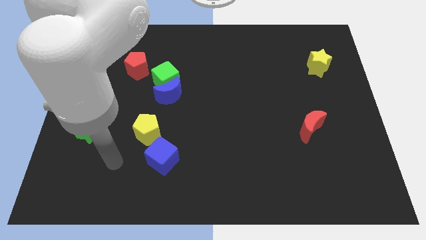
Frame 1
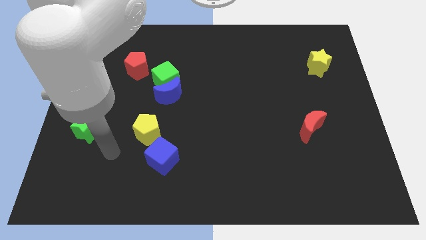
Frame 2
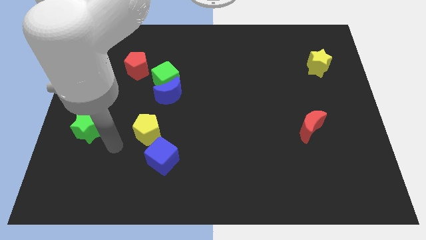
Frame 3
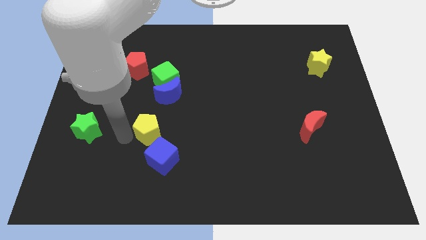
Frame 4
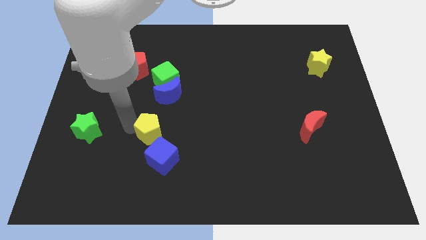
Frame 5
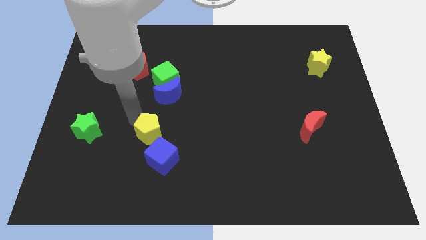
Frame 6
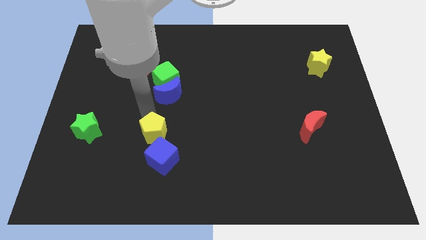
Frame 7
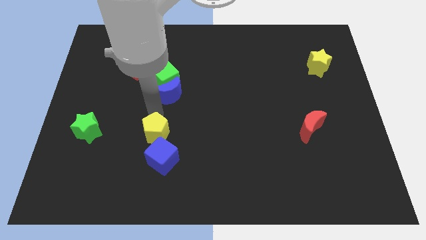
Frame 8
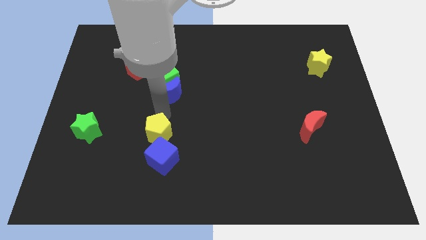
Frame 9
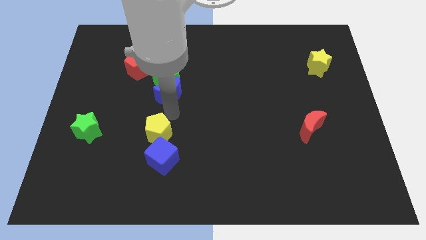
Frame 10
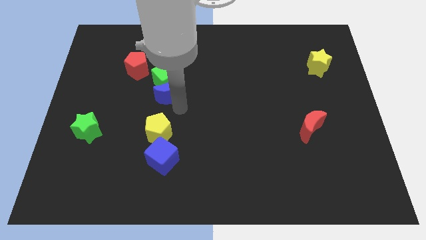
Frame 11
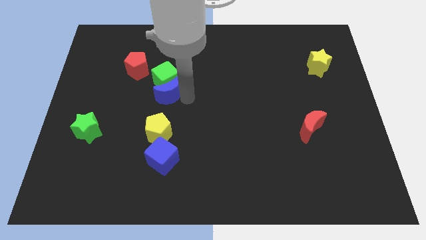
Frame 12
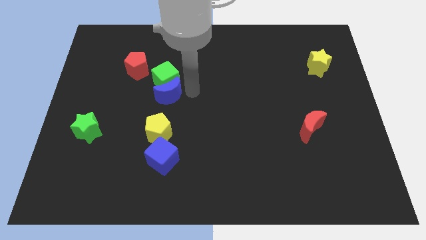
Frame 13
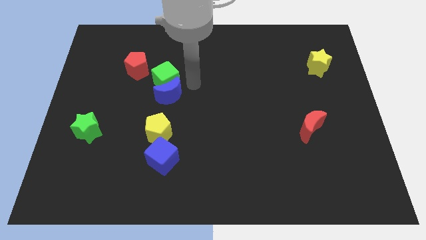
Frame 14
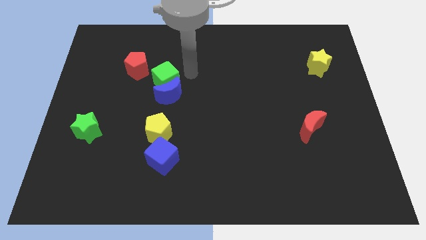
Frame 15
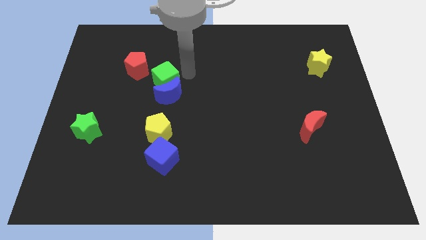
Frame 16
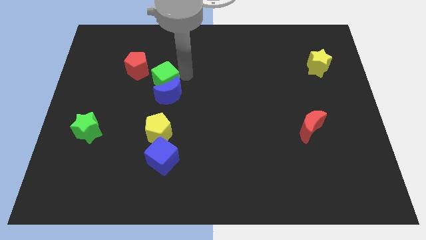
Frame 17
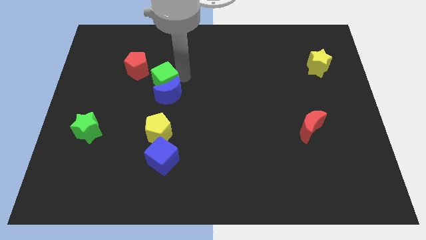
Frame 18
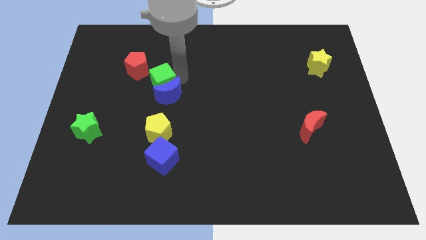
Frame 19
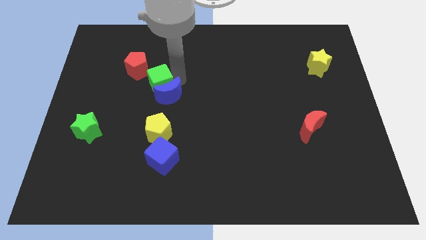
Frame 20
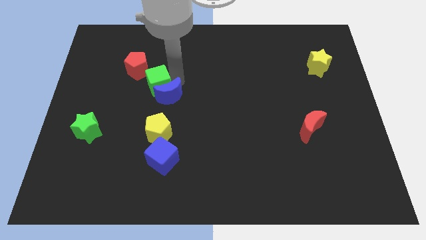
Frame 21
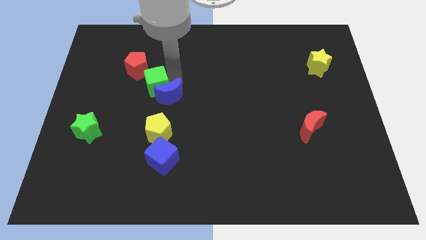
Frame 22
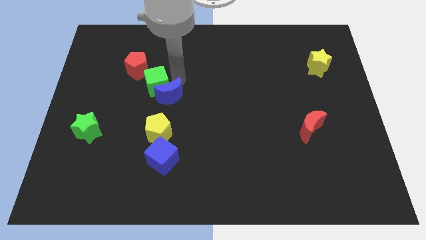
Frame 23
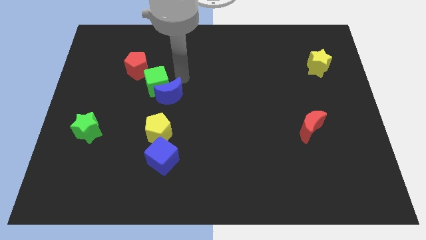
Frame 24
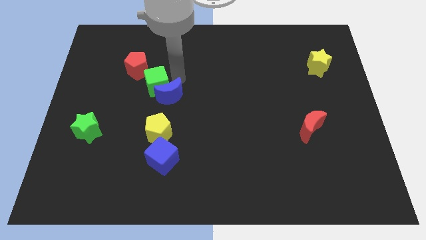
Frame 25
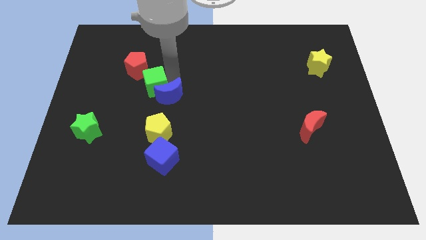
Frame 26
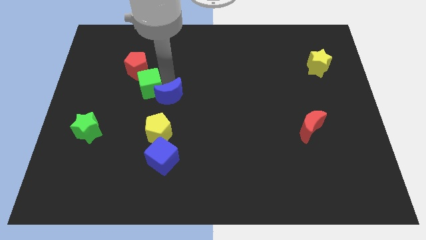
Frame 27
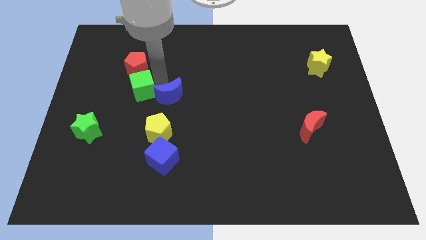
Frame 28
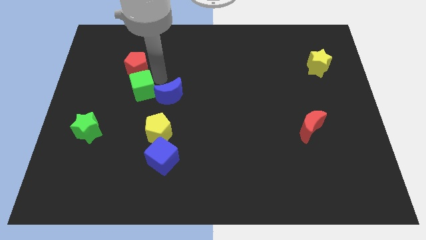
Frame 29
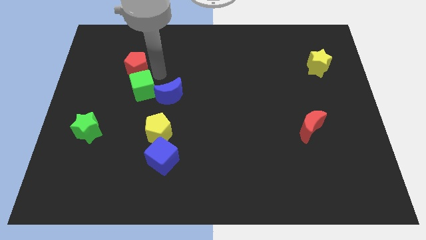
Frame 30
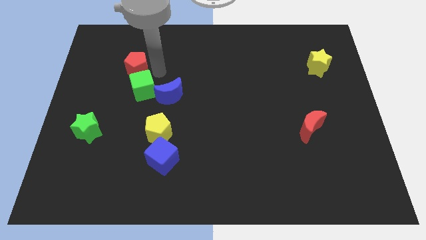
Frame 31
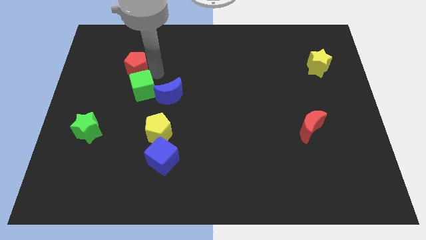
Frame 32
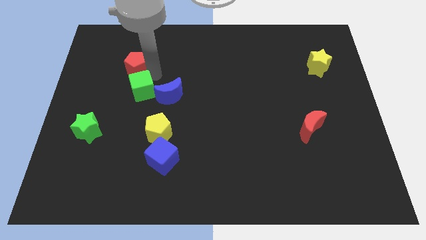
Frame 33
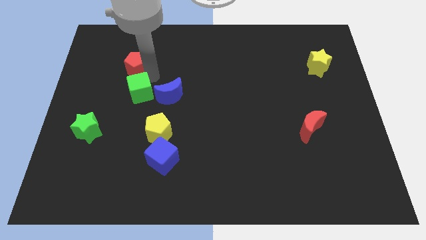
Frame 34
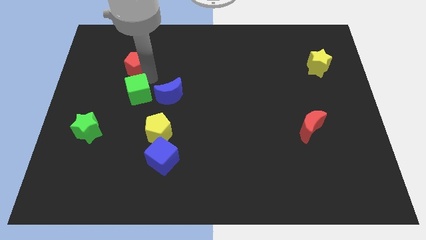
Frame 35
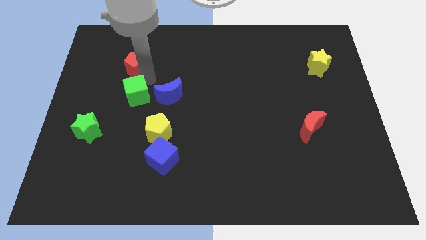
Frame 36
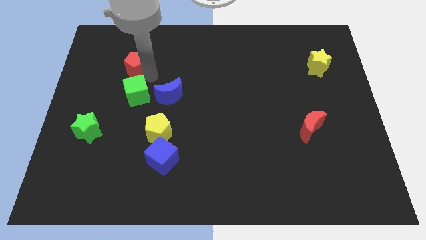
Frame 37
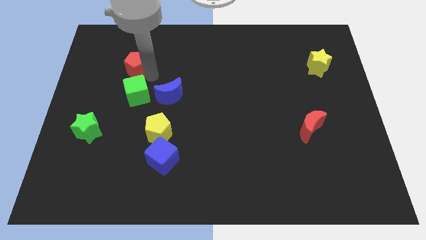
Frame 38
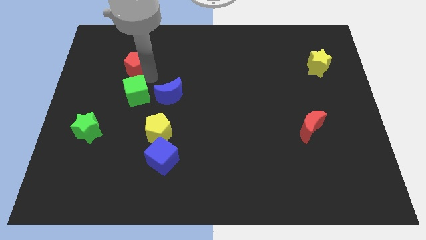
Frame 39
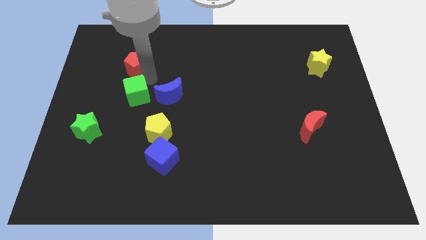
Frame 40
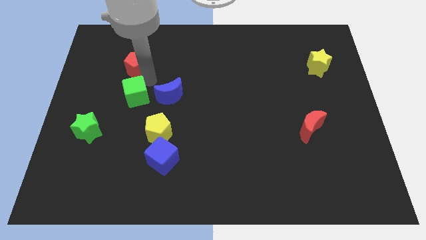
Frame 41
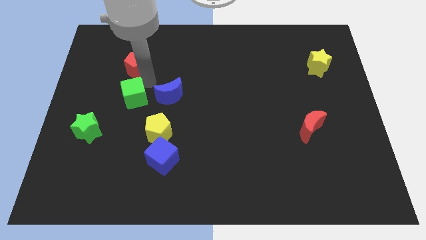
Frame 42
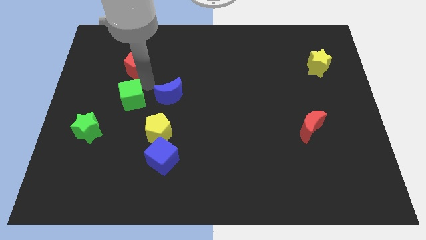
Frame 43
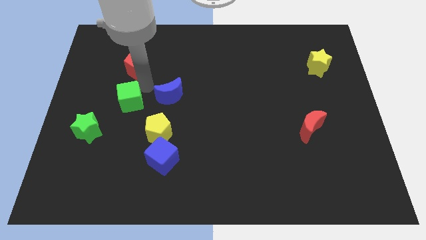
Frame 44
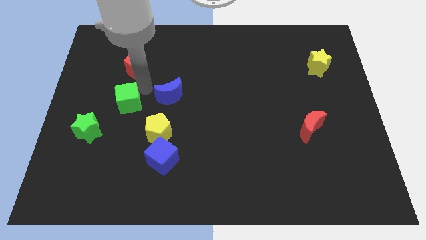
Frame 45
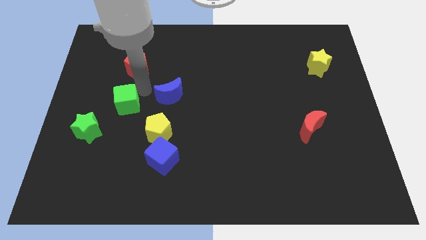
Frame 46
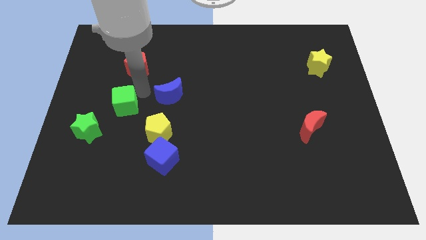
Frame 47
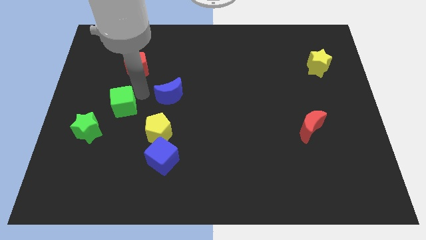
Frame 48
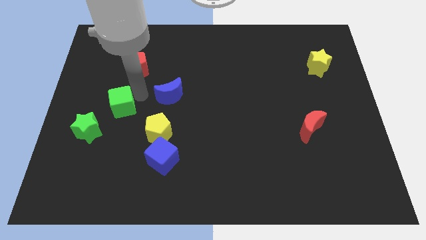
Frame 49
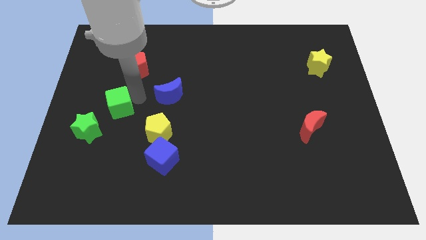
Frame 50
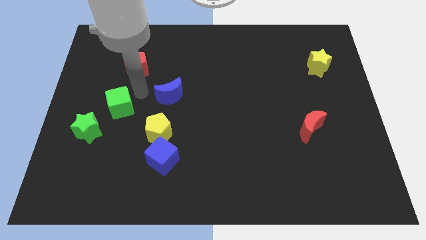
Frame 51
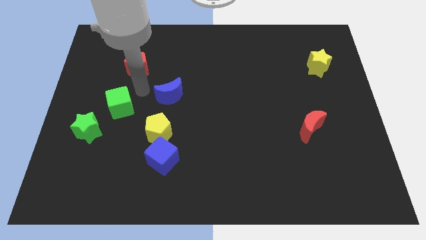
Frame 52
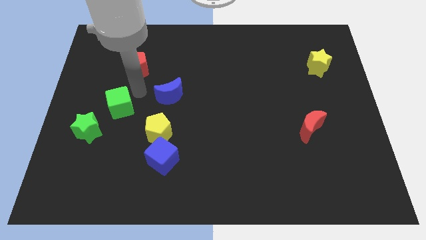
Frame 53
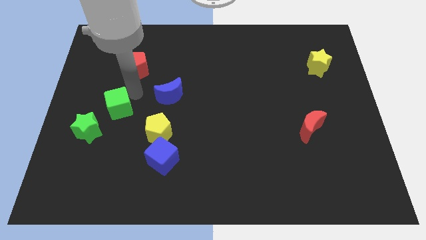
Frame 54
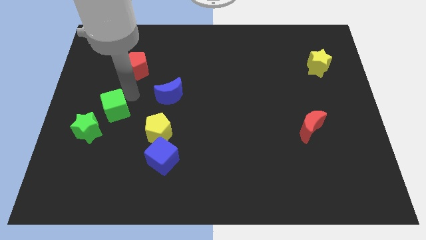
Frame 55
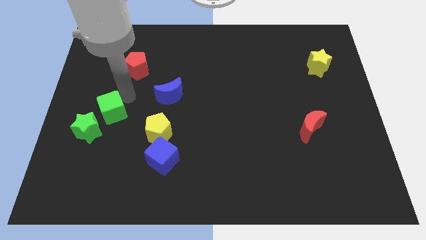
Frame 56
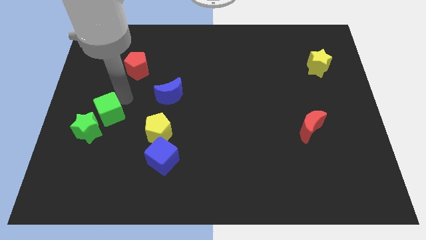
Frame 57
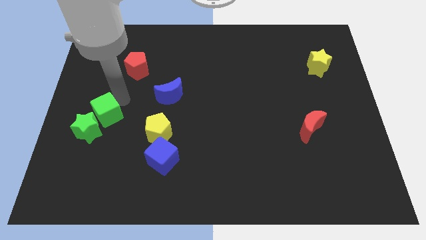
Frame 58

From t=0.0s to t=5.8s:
move the green cube next to the green star

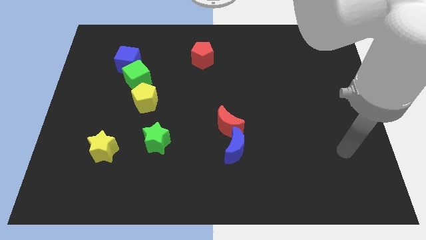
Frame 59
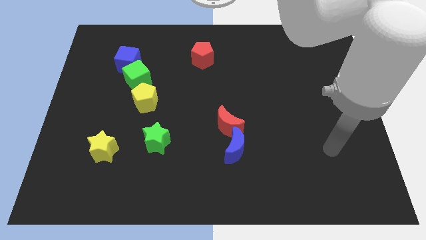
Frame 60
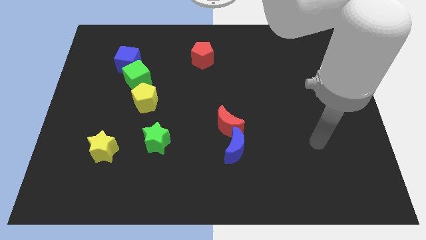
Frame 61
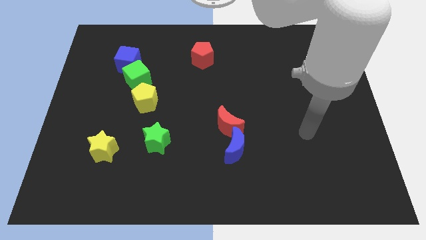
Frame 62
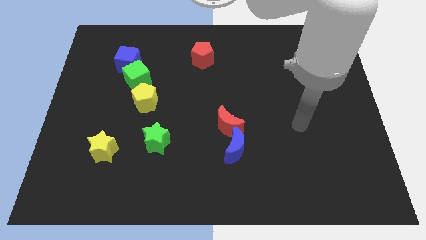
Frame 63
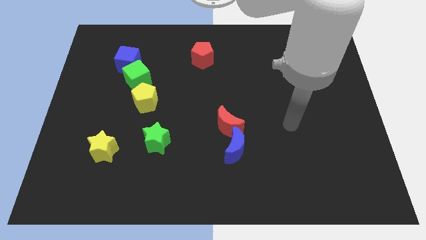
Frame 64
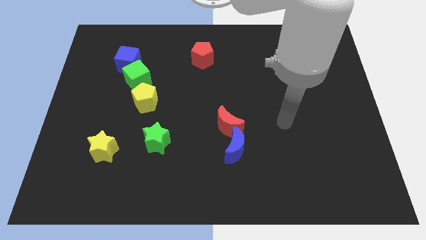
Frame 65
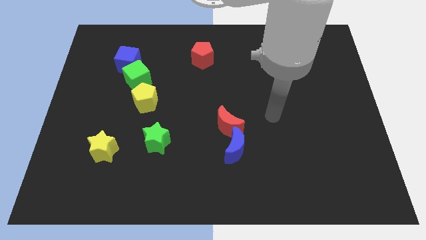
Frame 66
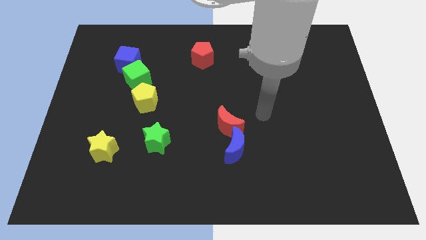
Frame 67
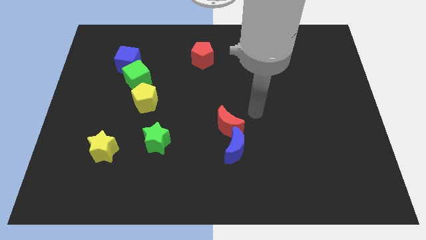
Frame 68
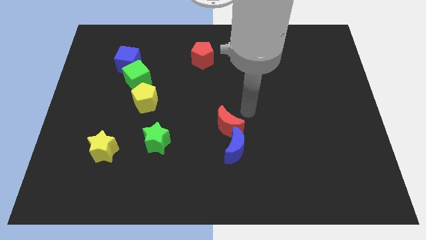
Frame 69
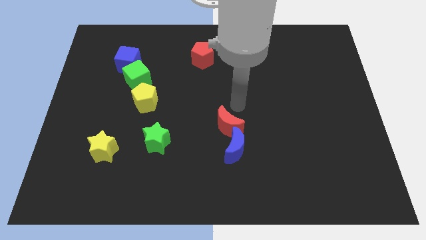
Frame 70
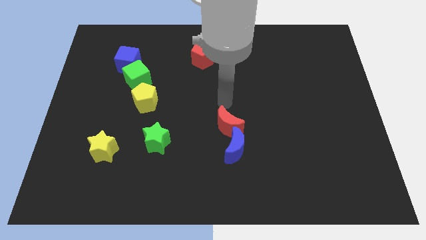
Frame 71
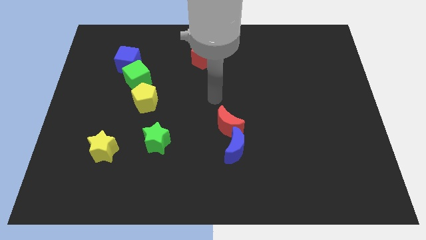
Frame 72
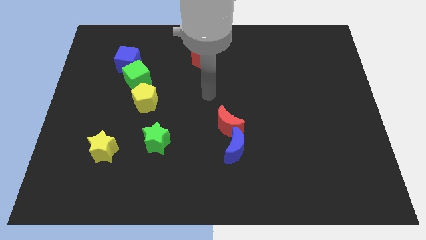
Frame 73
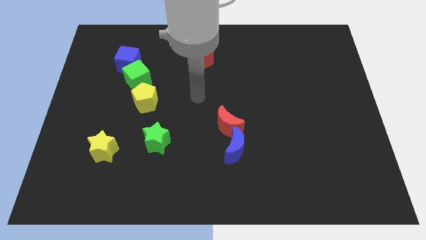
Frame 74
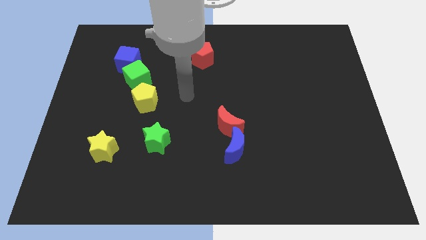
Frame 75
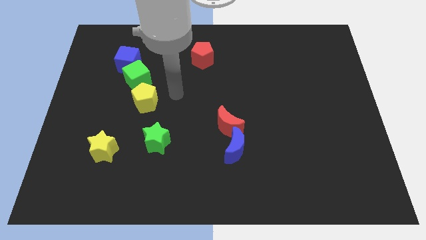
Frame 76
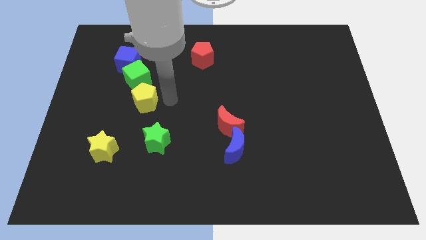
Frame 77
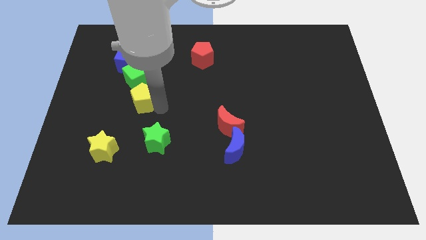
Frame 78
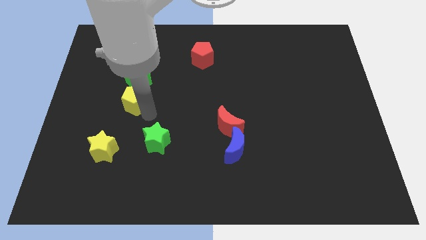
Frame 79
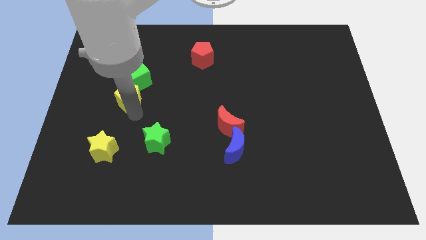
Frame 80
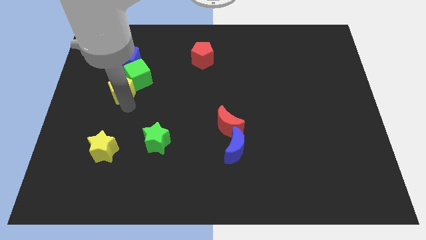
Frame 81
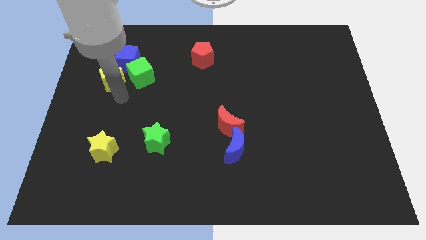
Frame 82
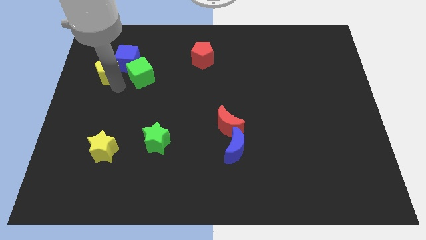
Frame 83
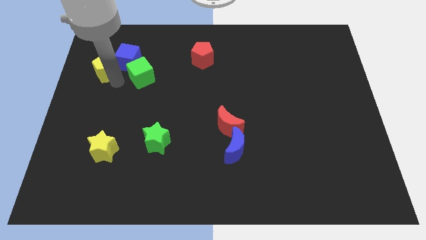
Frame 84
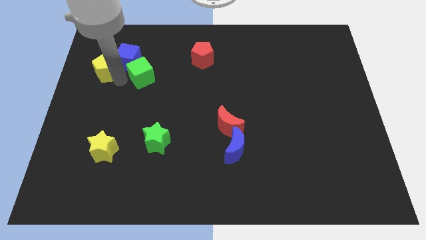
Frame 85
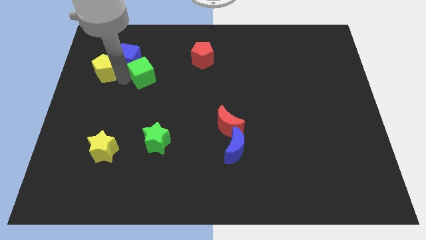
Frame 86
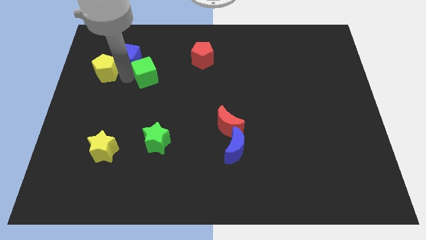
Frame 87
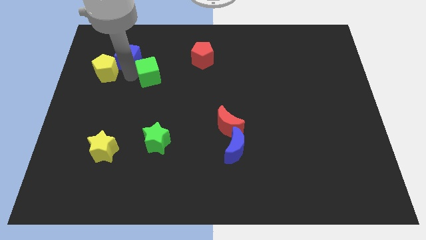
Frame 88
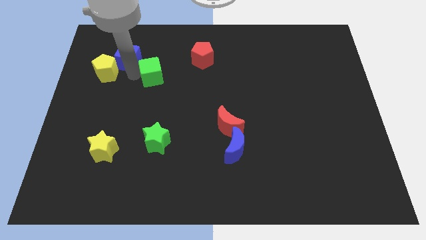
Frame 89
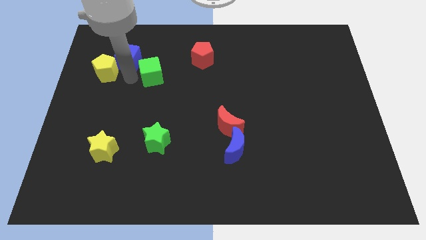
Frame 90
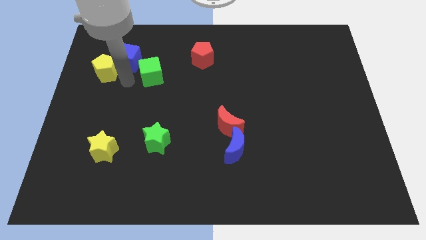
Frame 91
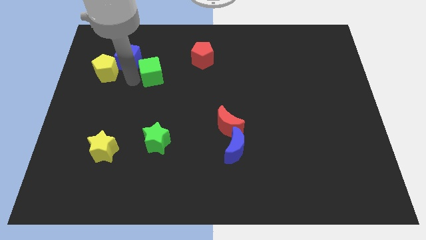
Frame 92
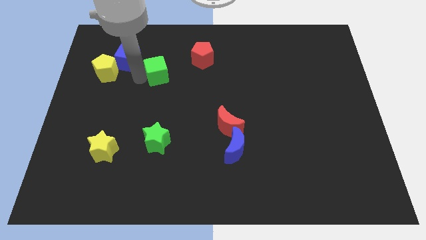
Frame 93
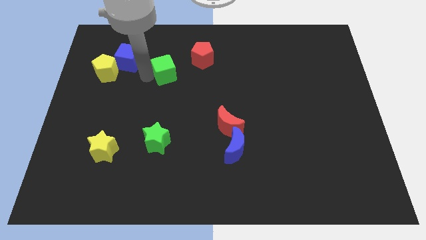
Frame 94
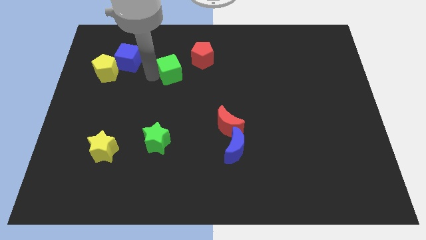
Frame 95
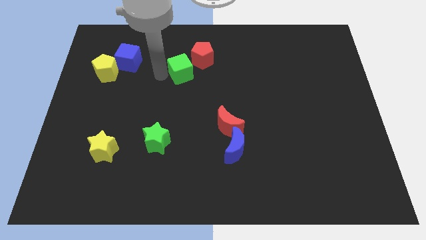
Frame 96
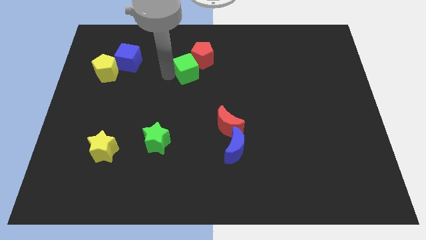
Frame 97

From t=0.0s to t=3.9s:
move the green cube towards the red pentagon
